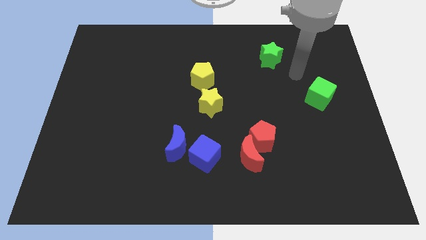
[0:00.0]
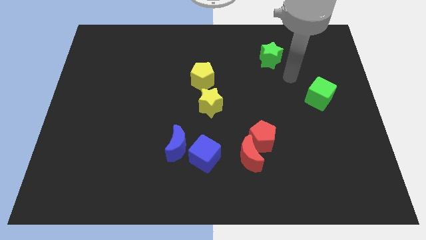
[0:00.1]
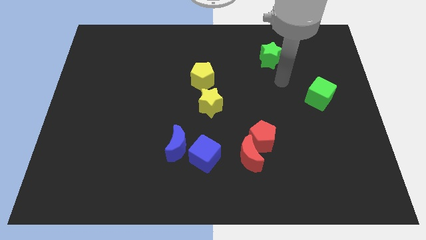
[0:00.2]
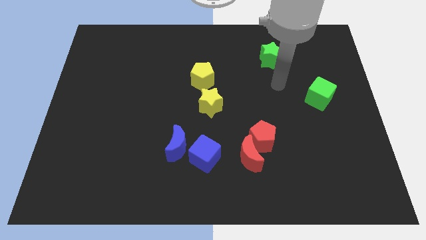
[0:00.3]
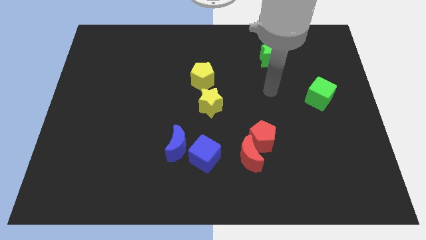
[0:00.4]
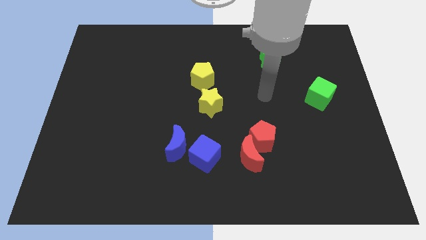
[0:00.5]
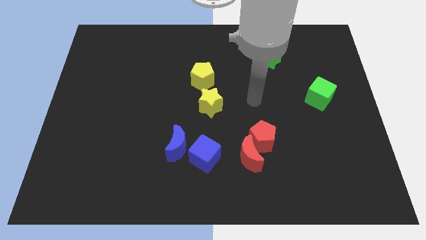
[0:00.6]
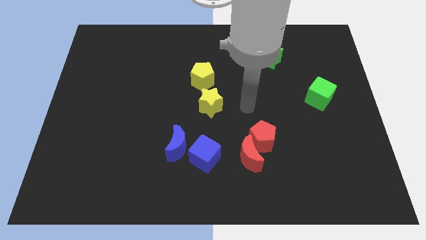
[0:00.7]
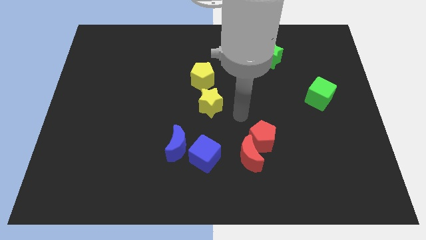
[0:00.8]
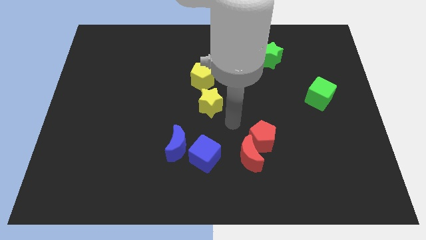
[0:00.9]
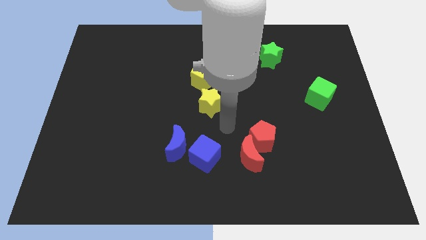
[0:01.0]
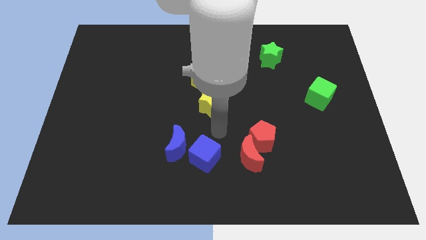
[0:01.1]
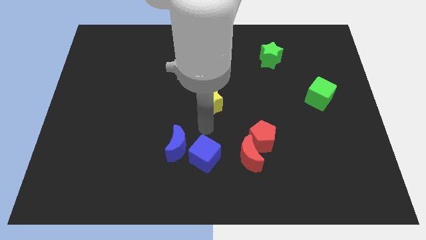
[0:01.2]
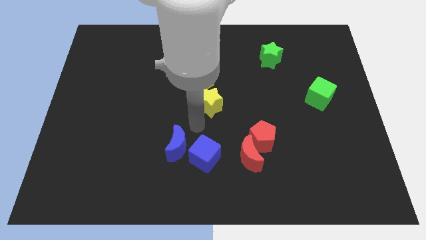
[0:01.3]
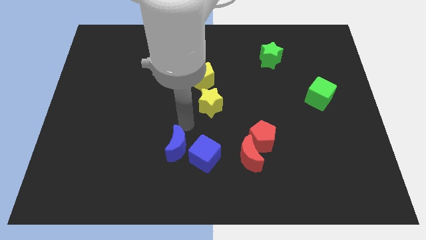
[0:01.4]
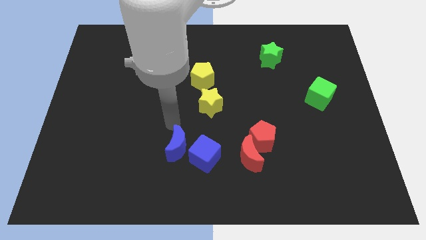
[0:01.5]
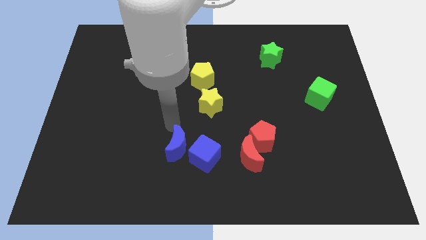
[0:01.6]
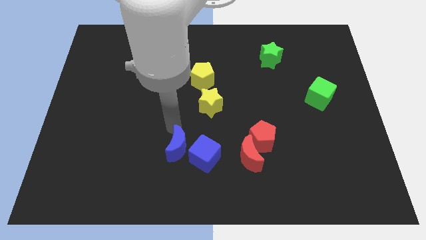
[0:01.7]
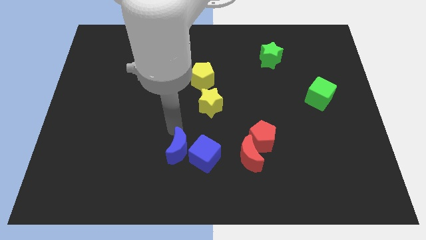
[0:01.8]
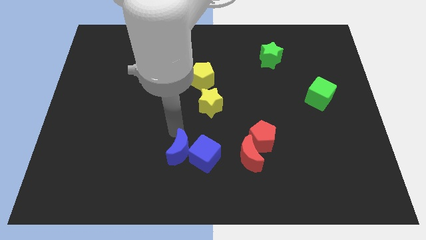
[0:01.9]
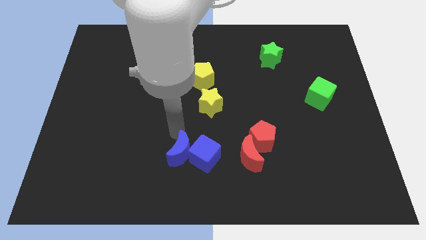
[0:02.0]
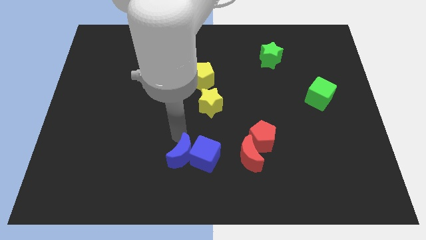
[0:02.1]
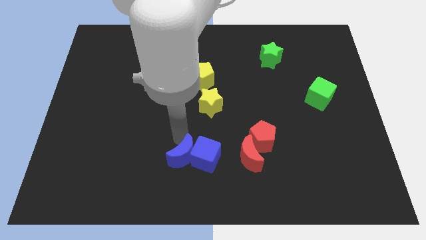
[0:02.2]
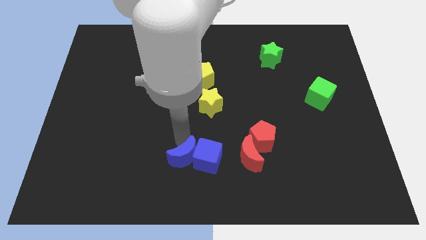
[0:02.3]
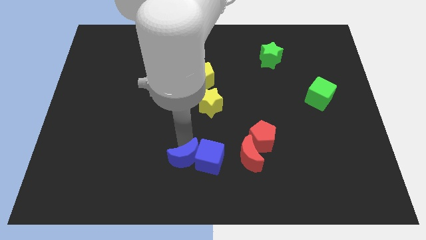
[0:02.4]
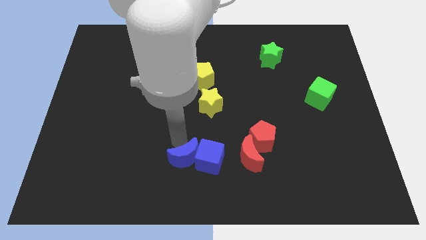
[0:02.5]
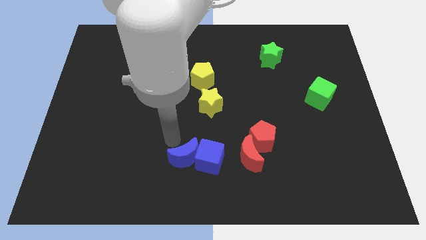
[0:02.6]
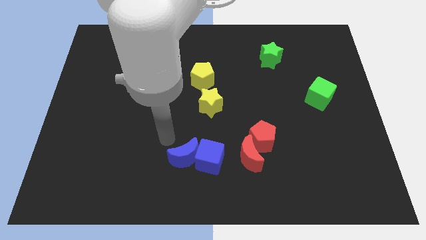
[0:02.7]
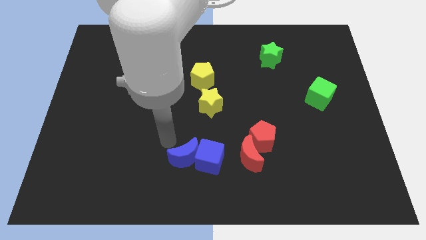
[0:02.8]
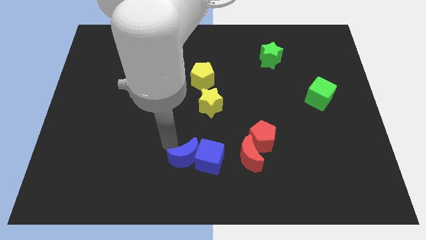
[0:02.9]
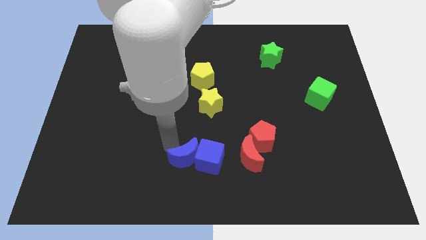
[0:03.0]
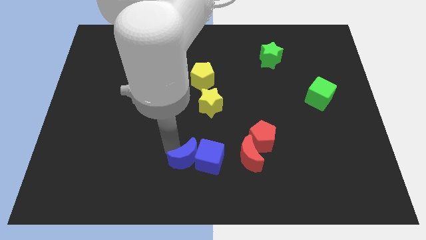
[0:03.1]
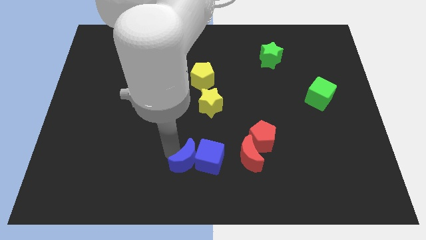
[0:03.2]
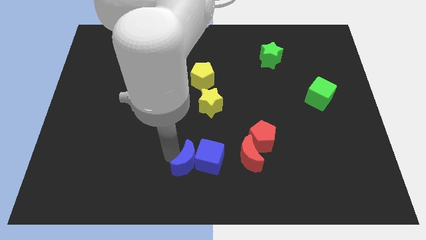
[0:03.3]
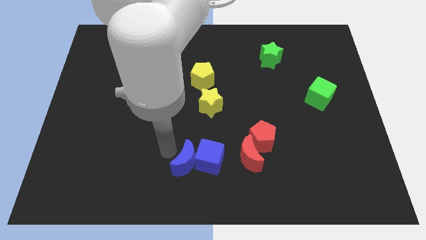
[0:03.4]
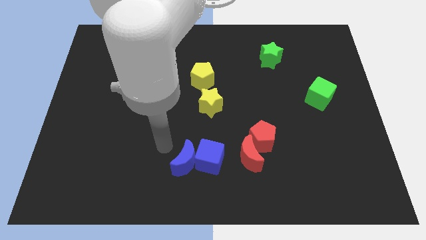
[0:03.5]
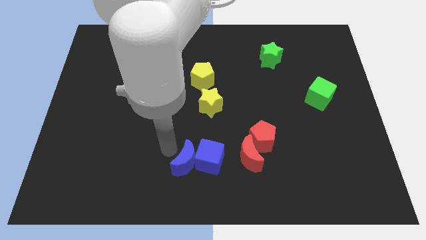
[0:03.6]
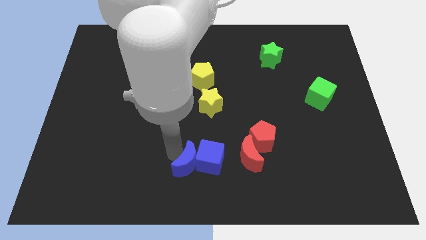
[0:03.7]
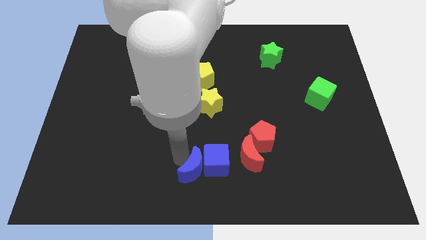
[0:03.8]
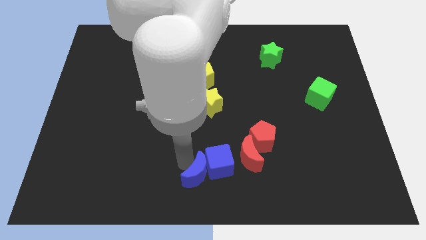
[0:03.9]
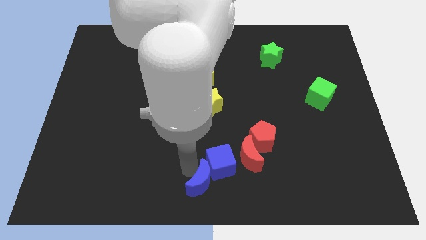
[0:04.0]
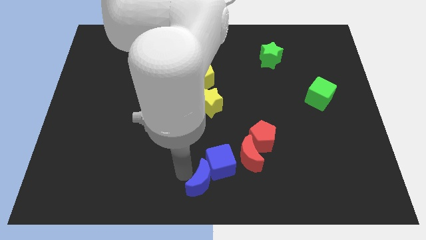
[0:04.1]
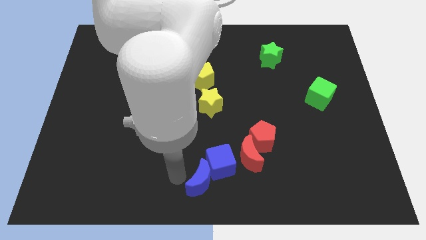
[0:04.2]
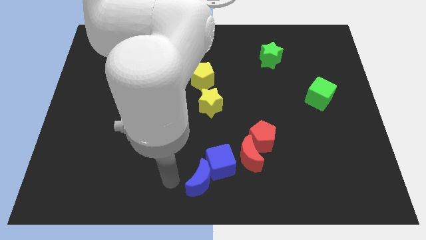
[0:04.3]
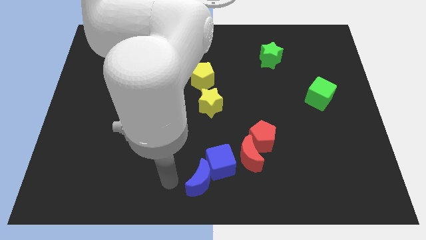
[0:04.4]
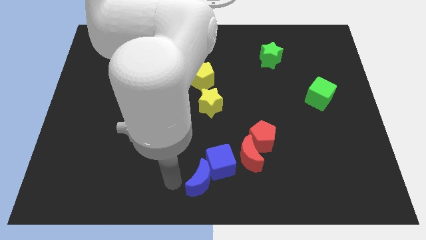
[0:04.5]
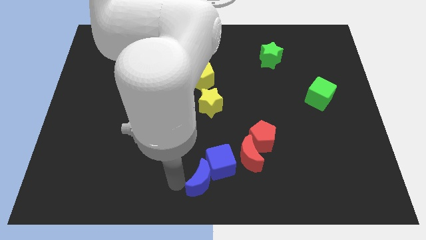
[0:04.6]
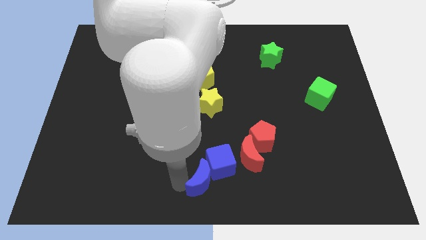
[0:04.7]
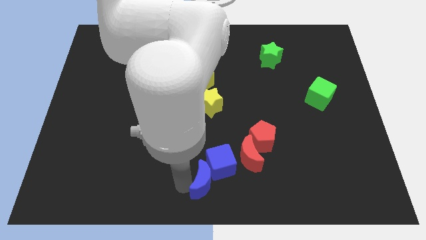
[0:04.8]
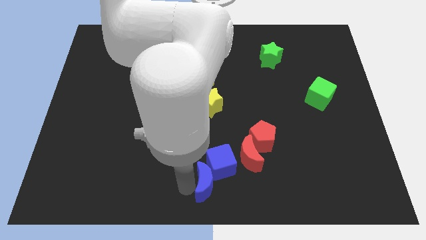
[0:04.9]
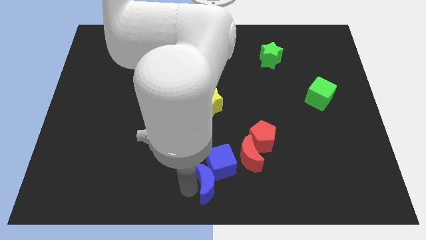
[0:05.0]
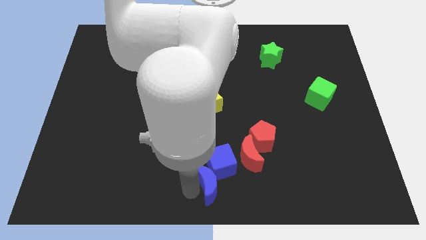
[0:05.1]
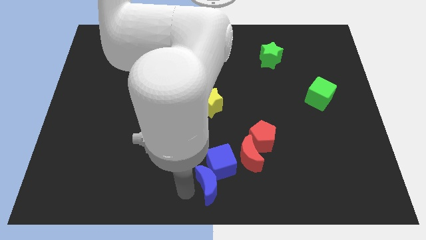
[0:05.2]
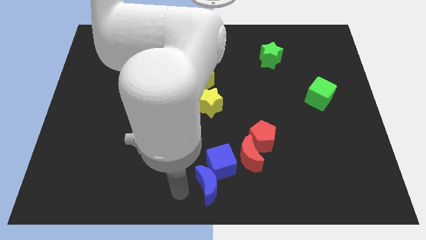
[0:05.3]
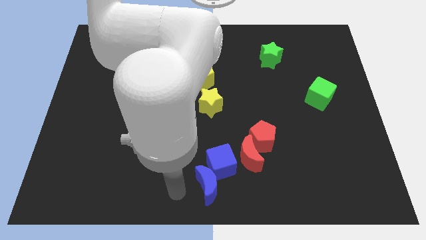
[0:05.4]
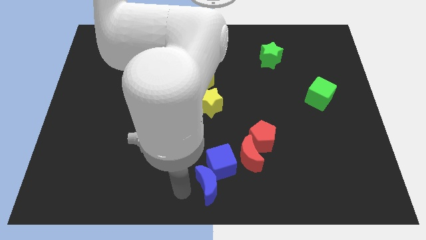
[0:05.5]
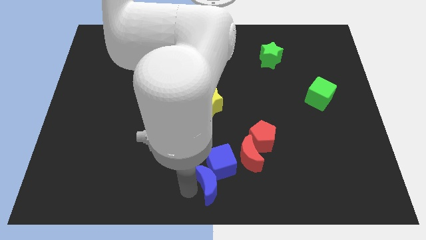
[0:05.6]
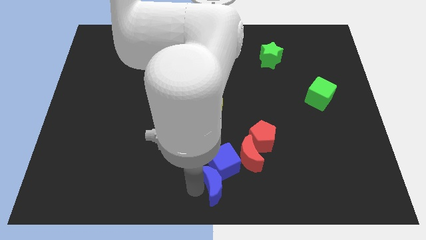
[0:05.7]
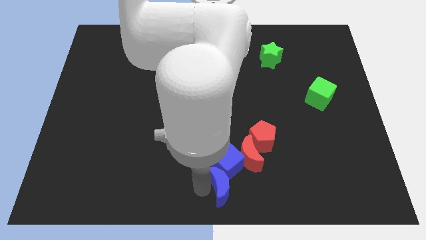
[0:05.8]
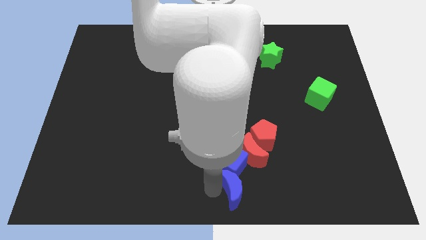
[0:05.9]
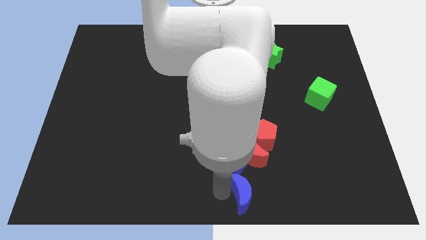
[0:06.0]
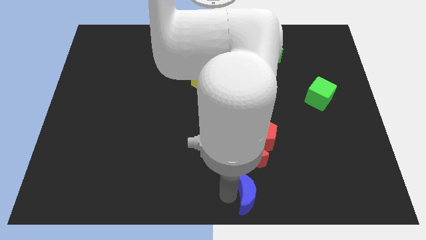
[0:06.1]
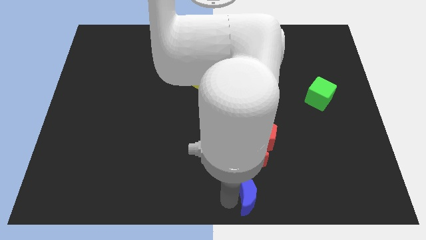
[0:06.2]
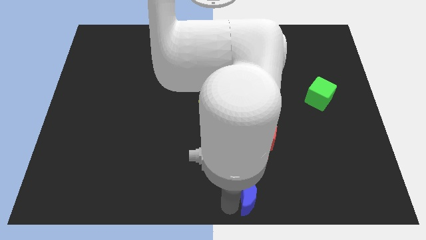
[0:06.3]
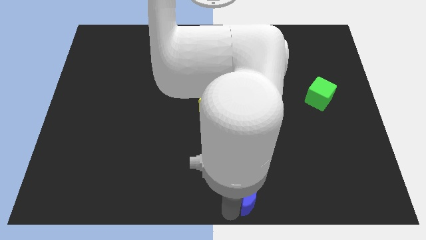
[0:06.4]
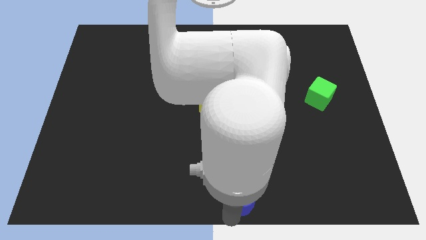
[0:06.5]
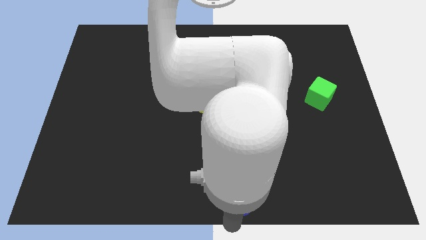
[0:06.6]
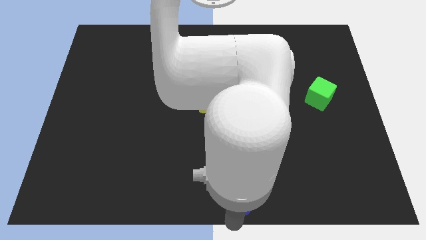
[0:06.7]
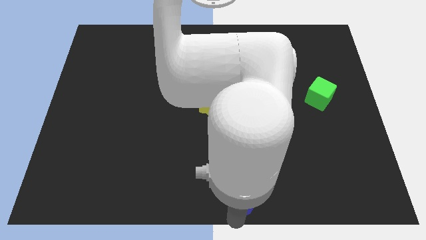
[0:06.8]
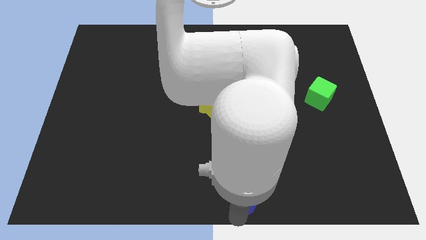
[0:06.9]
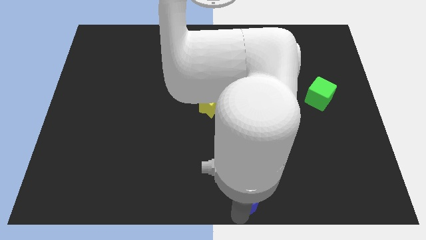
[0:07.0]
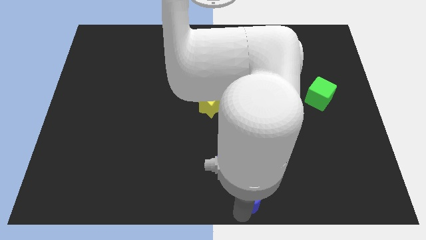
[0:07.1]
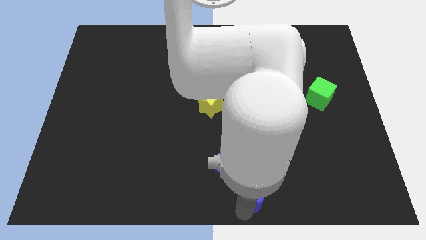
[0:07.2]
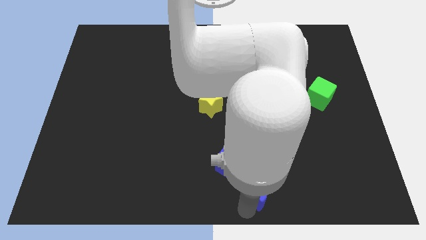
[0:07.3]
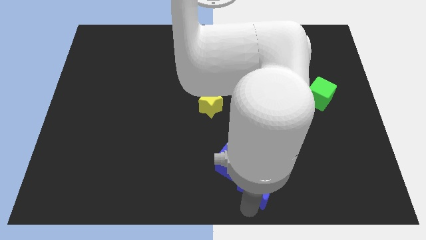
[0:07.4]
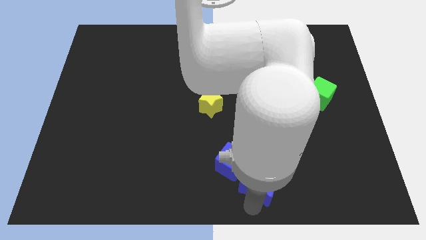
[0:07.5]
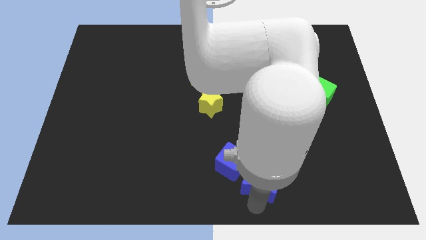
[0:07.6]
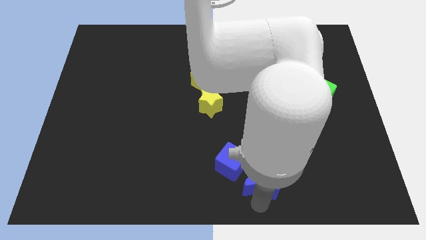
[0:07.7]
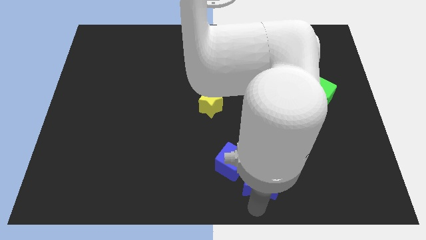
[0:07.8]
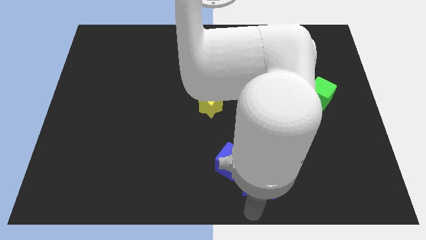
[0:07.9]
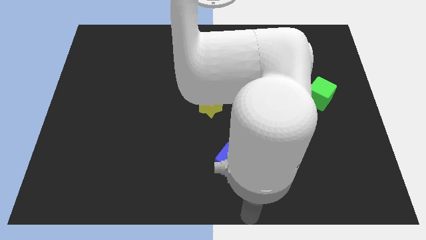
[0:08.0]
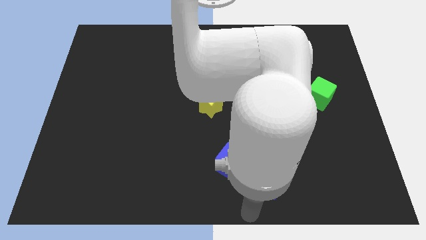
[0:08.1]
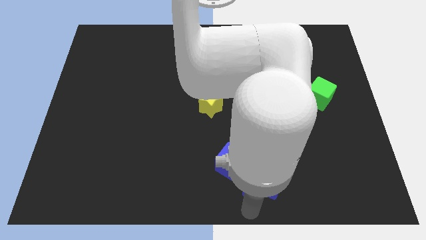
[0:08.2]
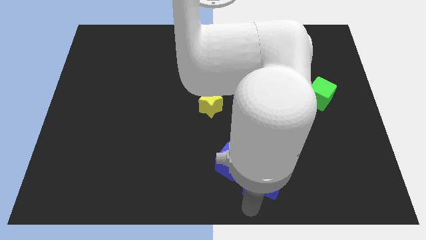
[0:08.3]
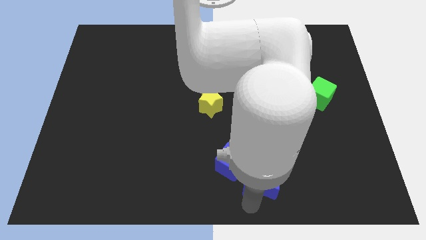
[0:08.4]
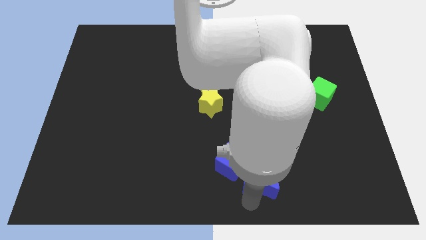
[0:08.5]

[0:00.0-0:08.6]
slide the blue moon right of the blue cube
